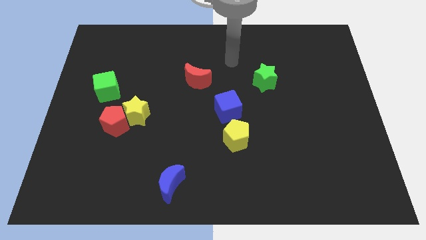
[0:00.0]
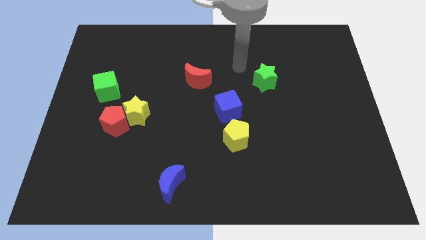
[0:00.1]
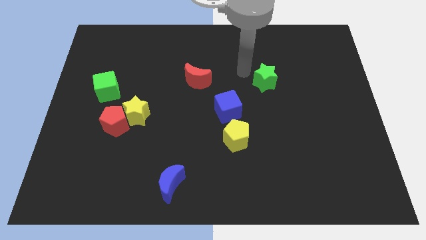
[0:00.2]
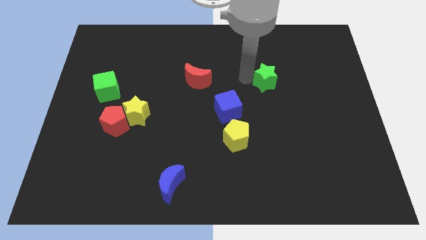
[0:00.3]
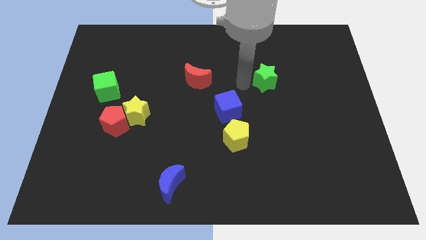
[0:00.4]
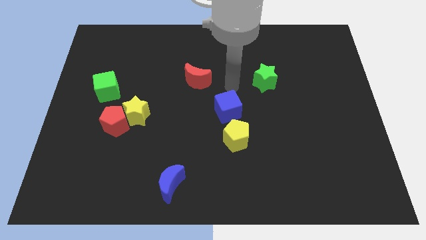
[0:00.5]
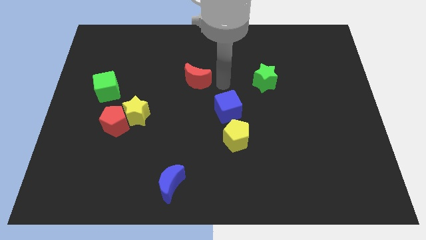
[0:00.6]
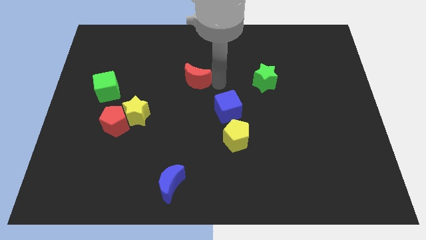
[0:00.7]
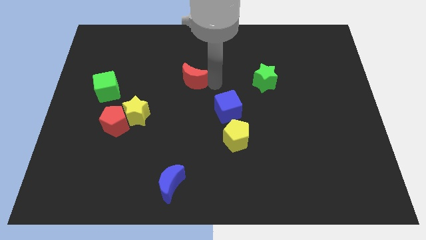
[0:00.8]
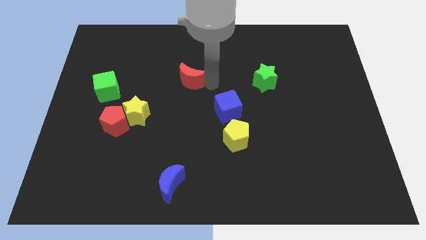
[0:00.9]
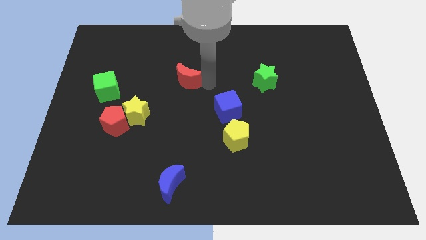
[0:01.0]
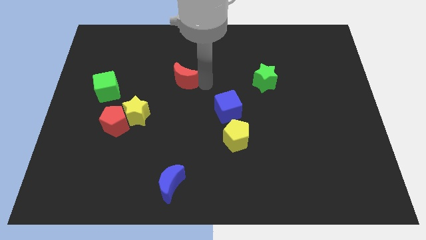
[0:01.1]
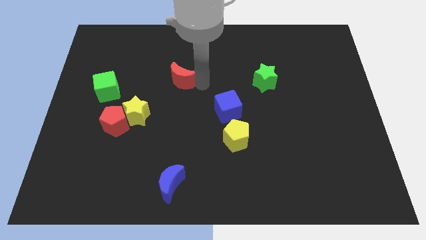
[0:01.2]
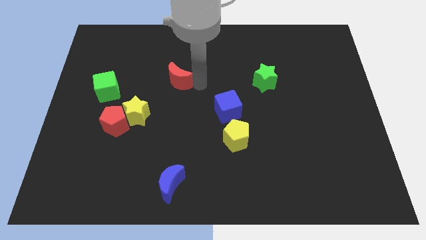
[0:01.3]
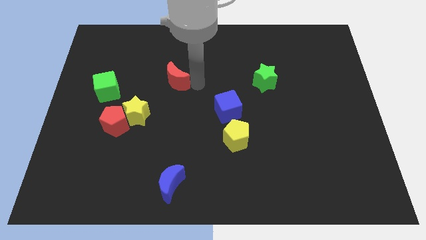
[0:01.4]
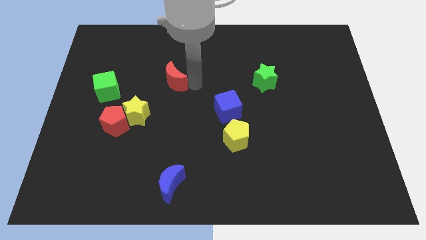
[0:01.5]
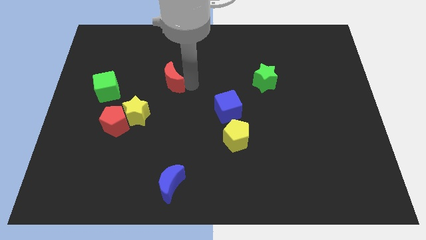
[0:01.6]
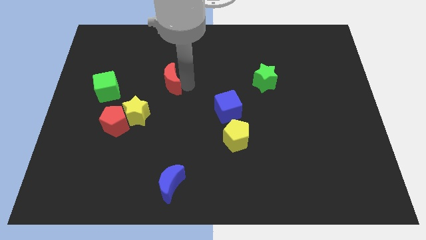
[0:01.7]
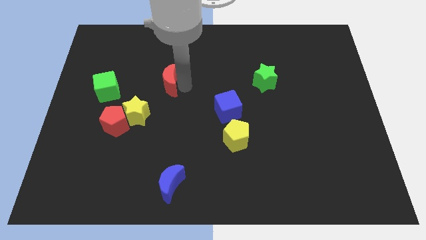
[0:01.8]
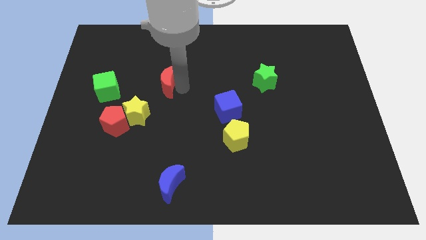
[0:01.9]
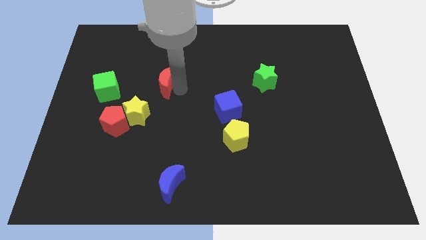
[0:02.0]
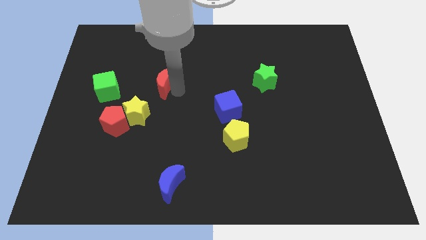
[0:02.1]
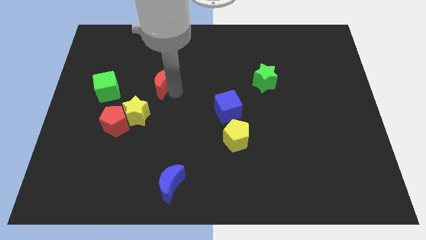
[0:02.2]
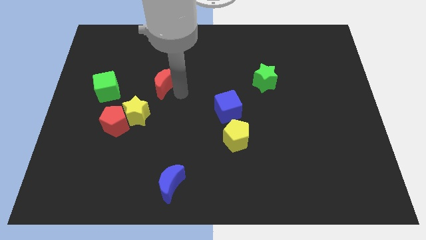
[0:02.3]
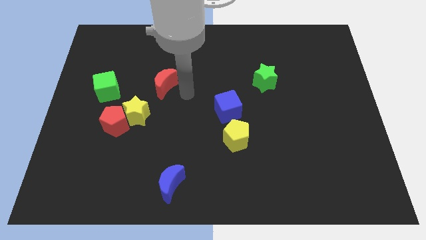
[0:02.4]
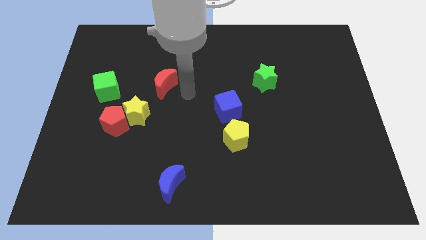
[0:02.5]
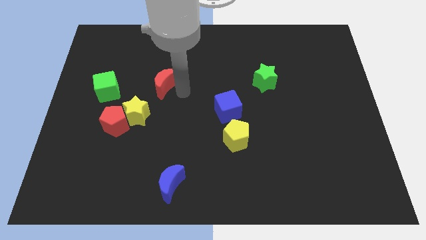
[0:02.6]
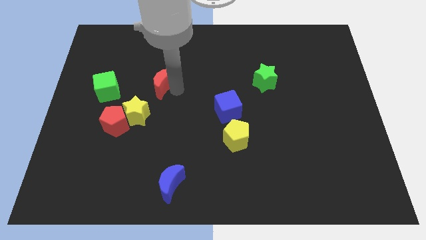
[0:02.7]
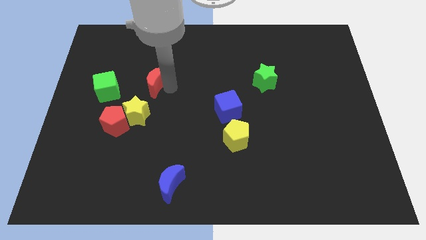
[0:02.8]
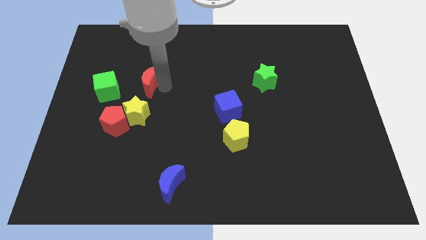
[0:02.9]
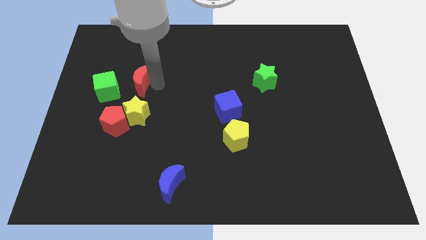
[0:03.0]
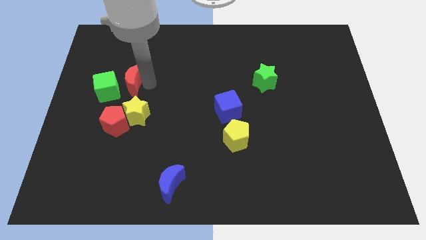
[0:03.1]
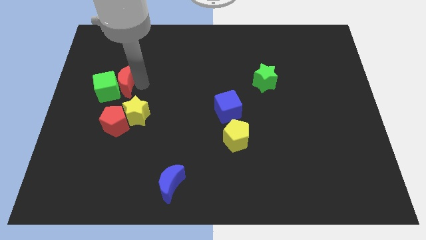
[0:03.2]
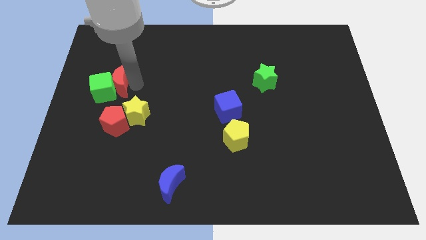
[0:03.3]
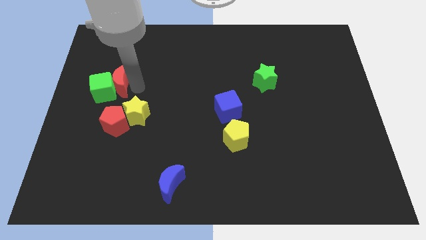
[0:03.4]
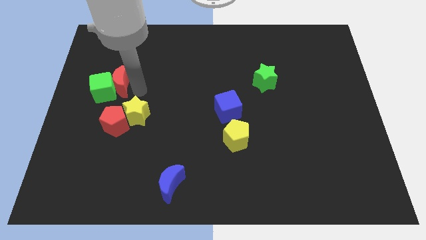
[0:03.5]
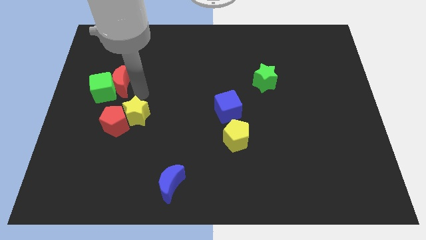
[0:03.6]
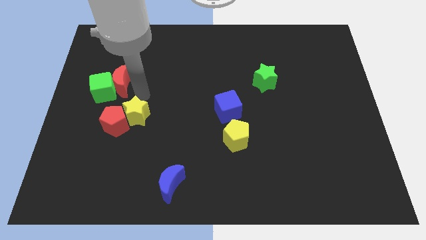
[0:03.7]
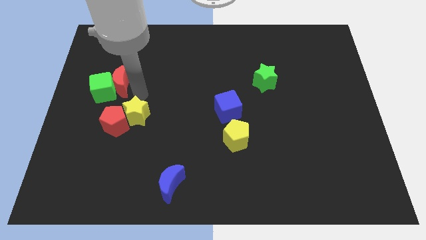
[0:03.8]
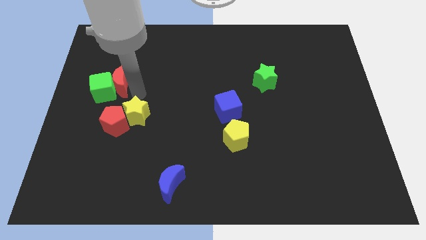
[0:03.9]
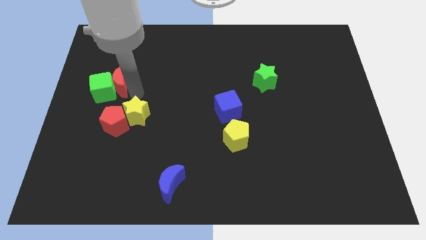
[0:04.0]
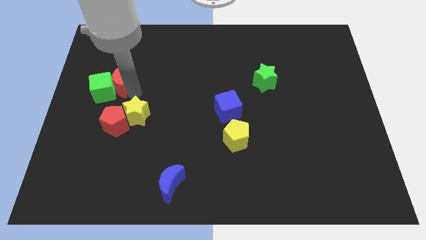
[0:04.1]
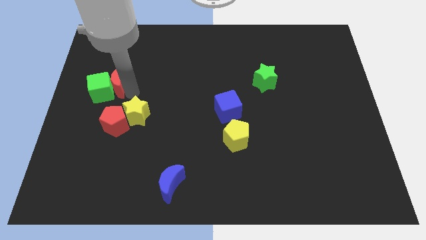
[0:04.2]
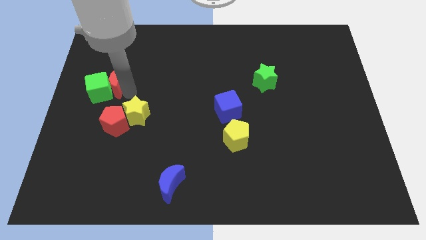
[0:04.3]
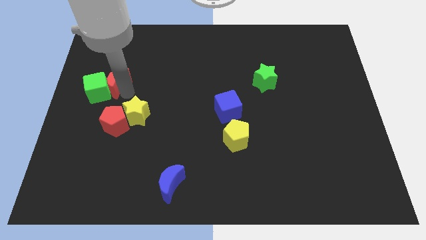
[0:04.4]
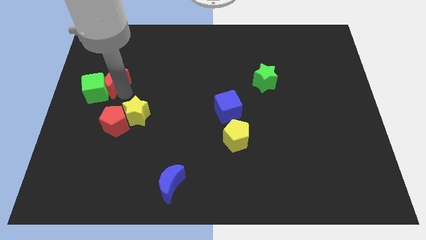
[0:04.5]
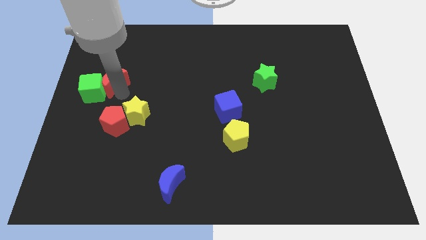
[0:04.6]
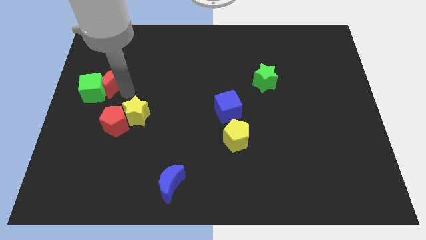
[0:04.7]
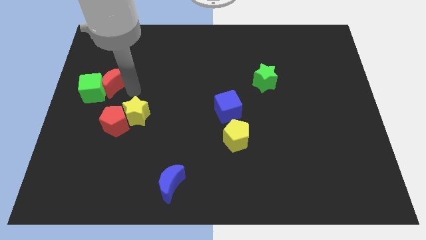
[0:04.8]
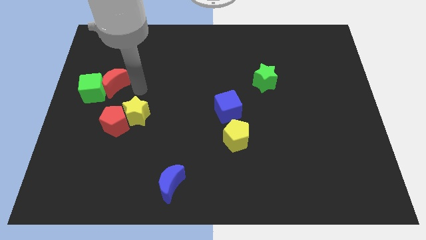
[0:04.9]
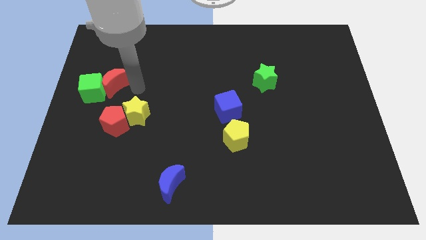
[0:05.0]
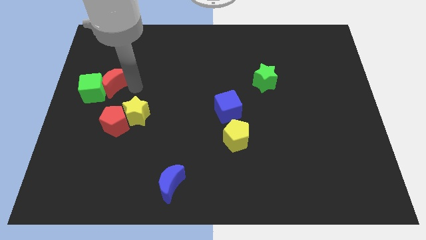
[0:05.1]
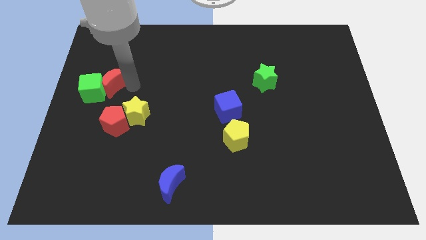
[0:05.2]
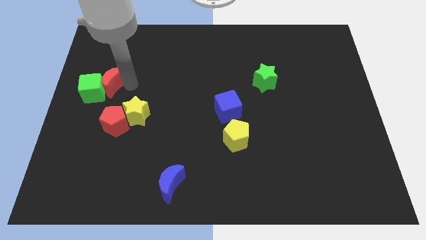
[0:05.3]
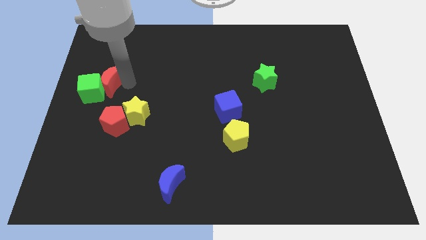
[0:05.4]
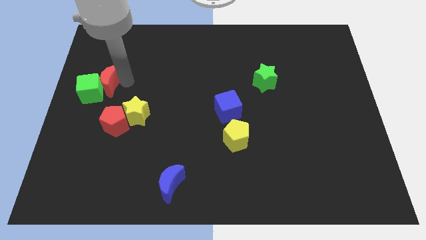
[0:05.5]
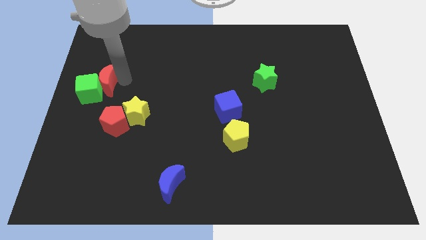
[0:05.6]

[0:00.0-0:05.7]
move the red moon to the left side
